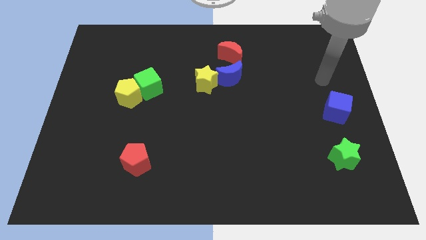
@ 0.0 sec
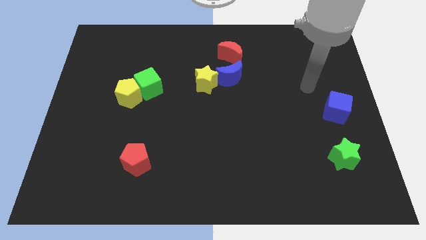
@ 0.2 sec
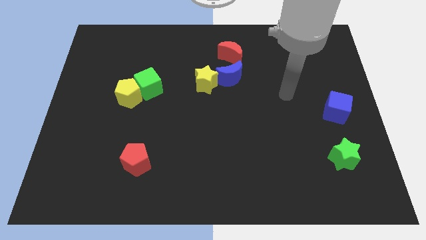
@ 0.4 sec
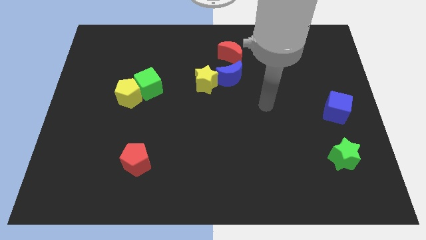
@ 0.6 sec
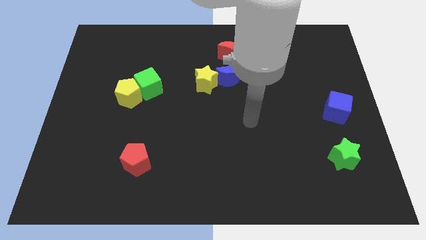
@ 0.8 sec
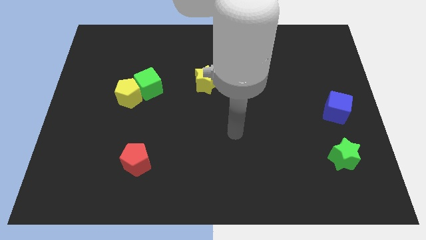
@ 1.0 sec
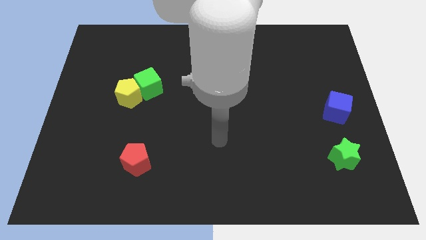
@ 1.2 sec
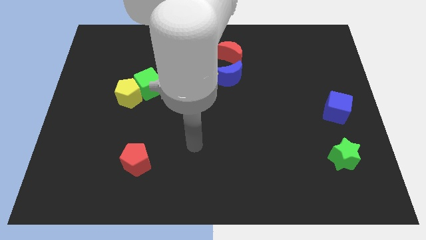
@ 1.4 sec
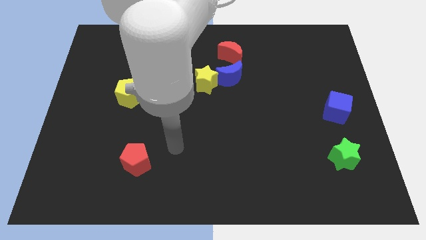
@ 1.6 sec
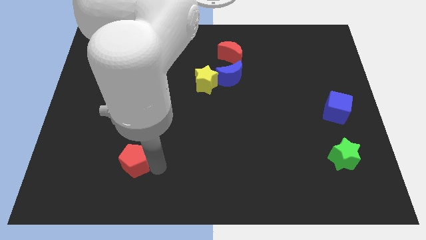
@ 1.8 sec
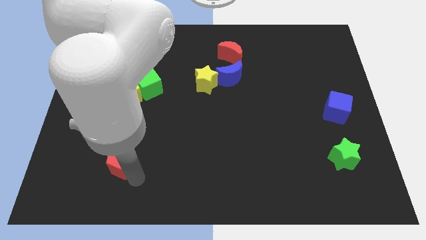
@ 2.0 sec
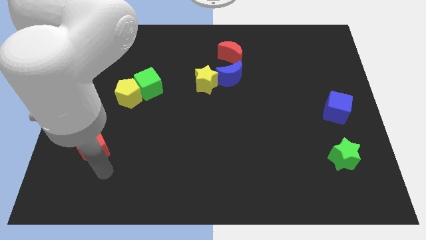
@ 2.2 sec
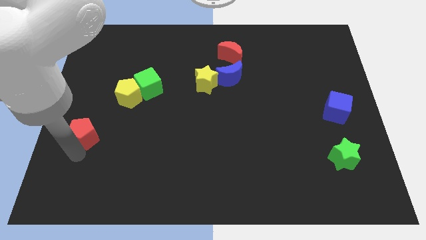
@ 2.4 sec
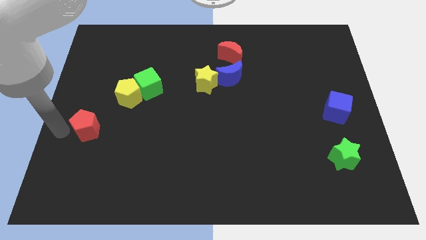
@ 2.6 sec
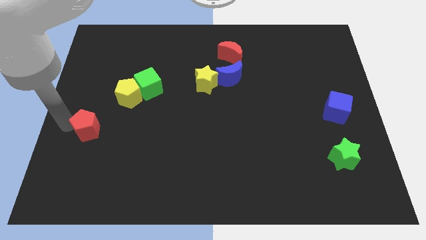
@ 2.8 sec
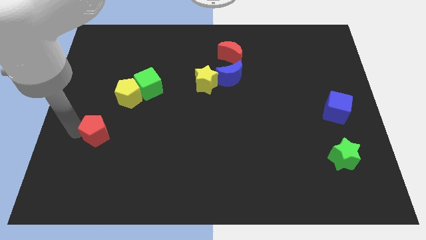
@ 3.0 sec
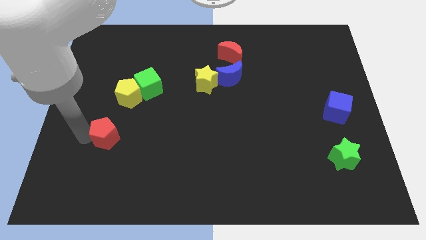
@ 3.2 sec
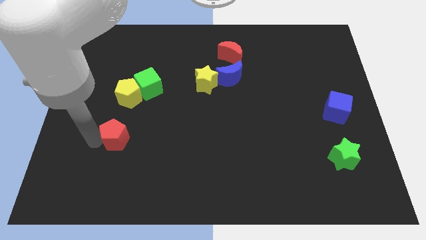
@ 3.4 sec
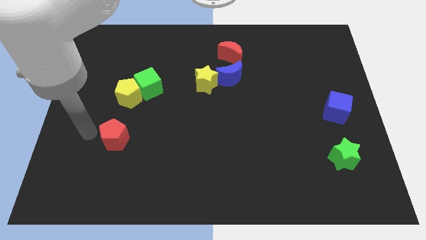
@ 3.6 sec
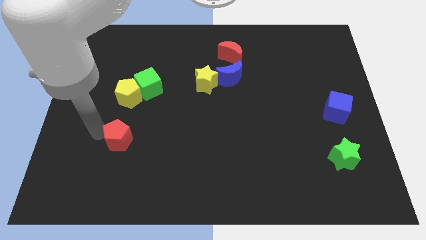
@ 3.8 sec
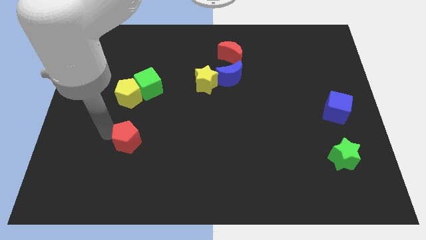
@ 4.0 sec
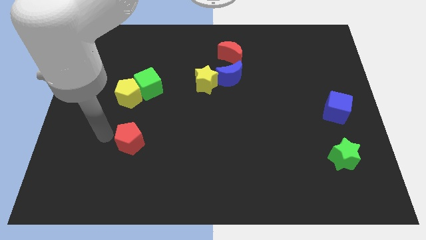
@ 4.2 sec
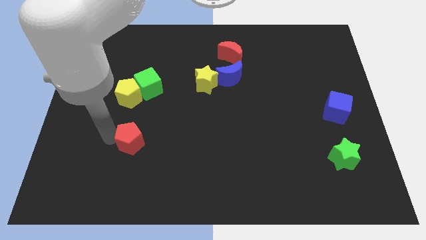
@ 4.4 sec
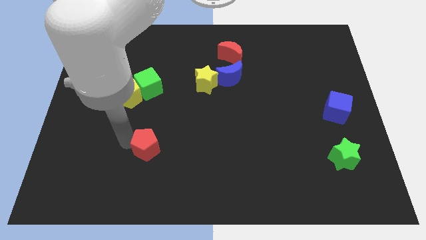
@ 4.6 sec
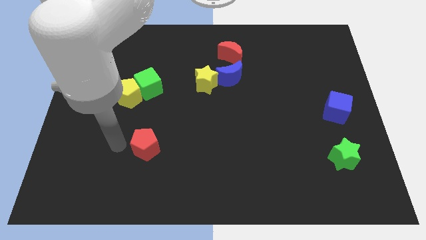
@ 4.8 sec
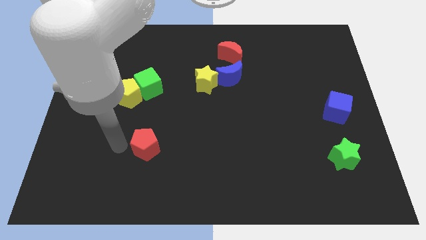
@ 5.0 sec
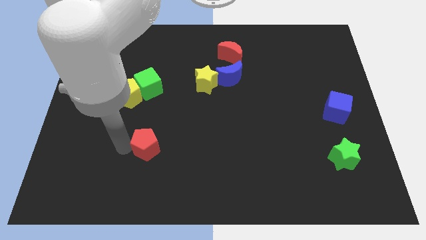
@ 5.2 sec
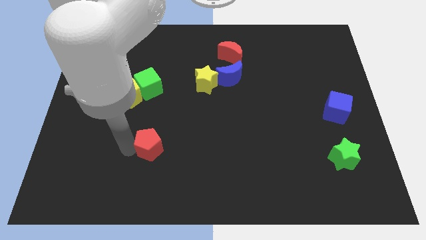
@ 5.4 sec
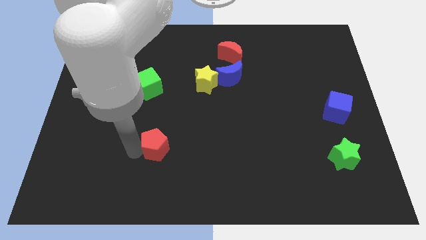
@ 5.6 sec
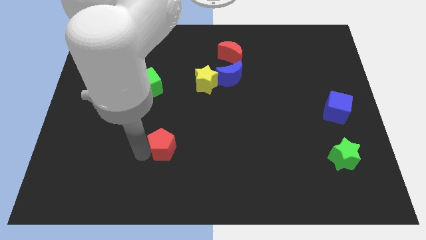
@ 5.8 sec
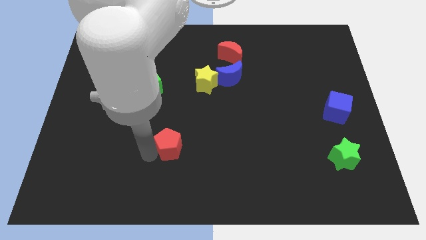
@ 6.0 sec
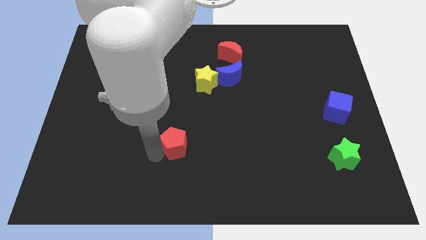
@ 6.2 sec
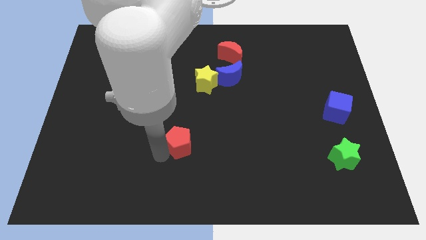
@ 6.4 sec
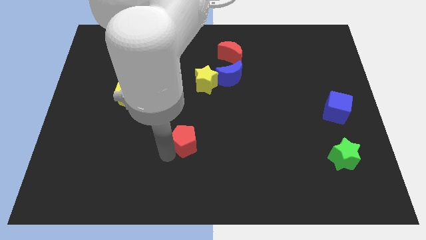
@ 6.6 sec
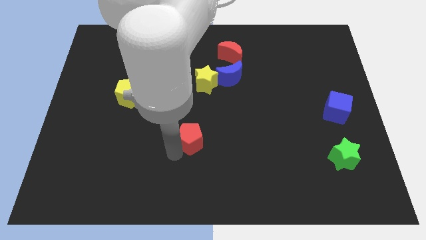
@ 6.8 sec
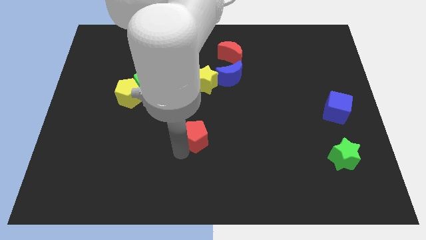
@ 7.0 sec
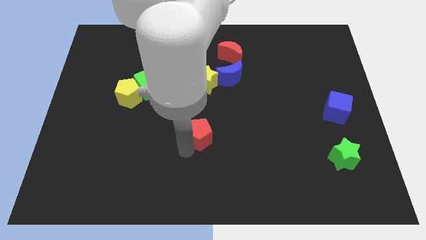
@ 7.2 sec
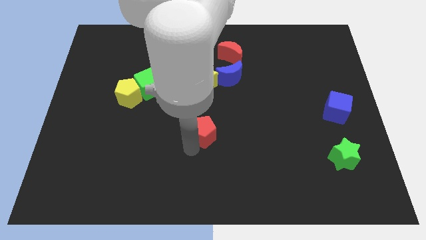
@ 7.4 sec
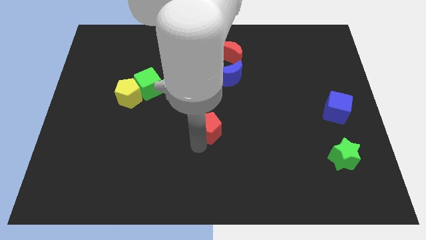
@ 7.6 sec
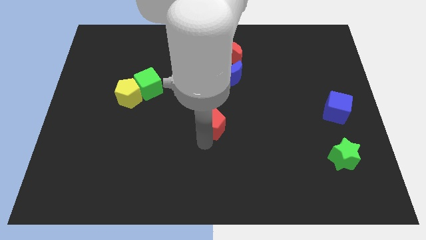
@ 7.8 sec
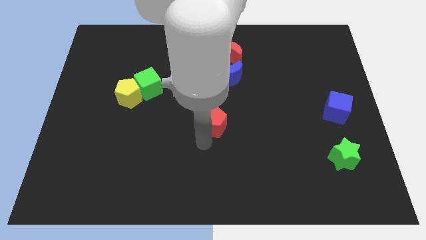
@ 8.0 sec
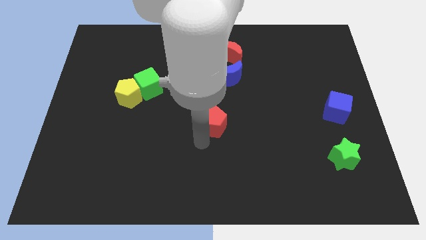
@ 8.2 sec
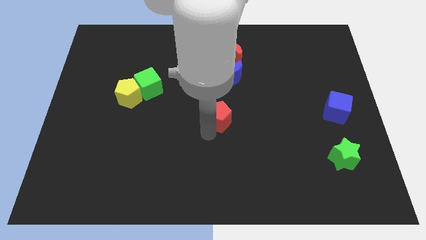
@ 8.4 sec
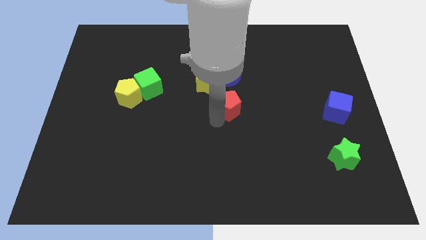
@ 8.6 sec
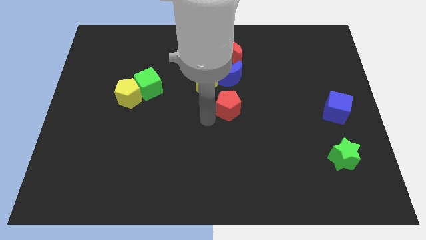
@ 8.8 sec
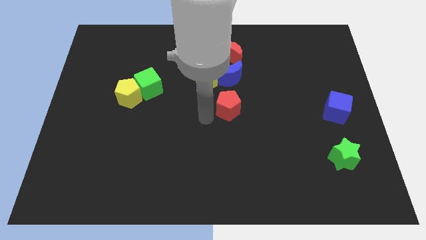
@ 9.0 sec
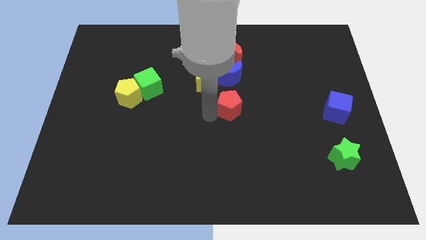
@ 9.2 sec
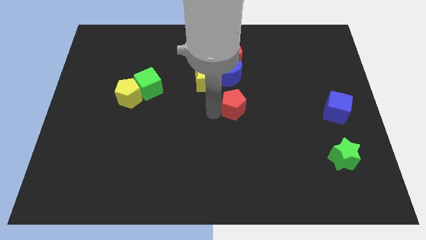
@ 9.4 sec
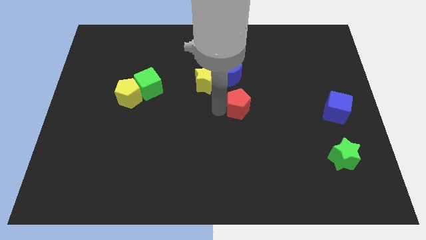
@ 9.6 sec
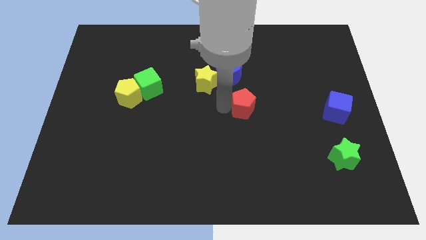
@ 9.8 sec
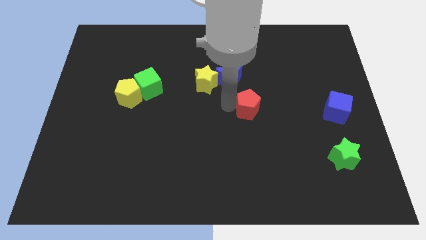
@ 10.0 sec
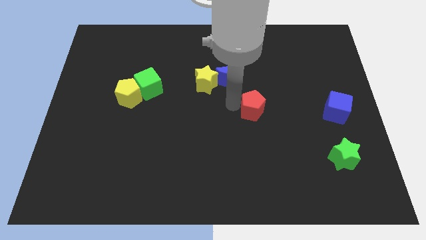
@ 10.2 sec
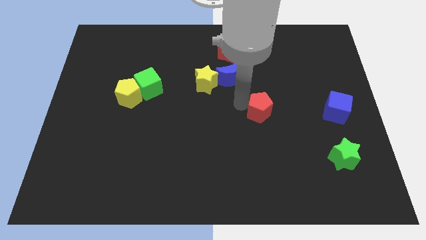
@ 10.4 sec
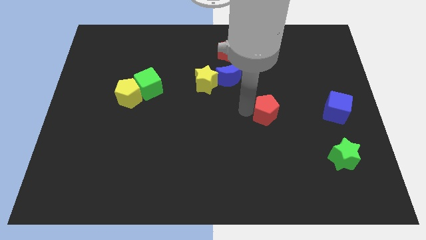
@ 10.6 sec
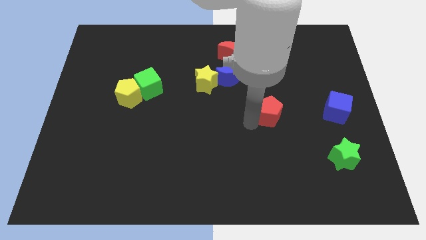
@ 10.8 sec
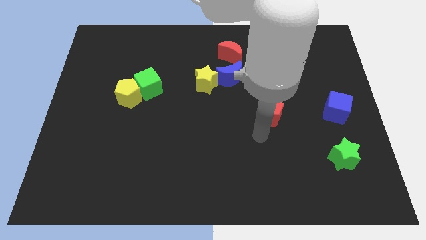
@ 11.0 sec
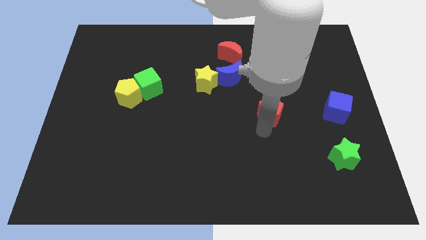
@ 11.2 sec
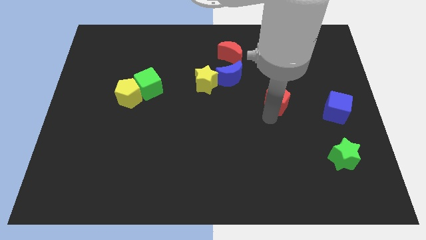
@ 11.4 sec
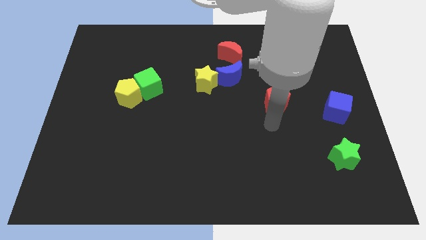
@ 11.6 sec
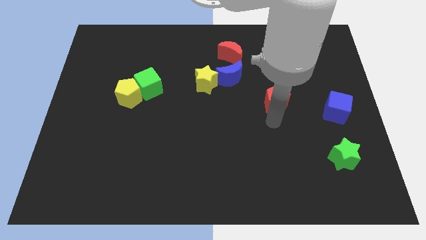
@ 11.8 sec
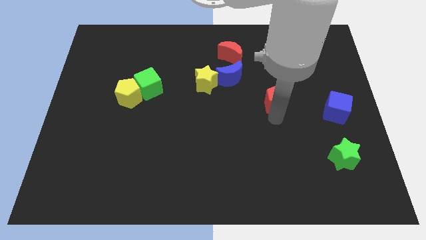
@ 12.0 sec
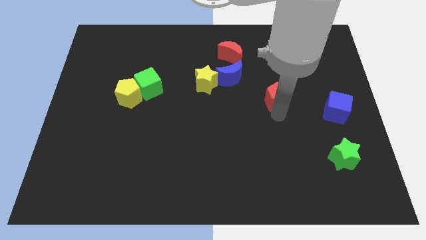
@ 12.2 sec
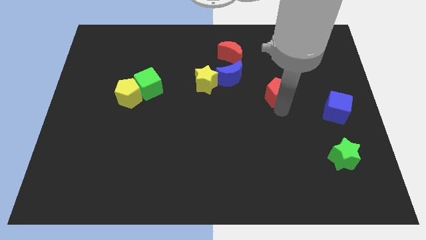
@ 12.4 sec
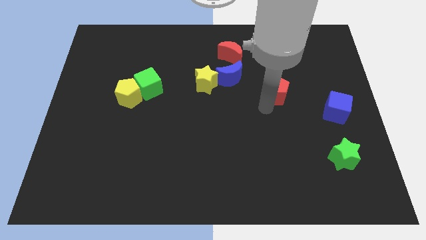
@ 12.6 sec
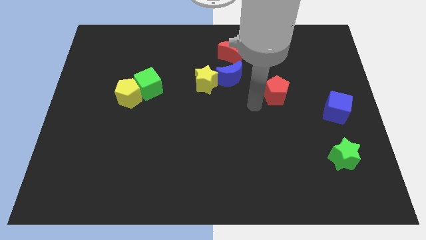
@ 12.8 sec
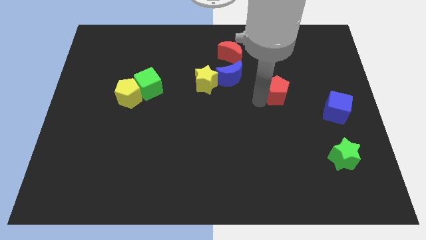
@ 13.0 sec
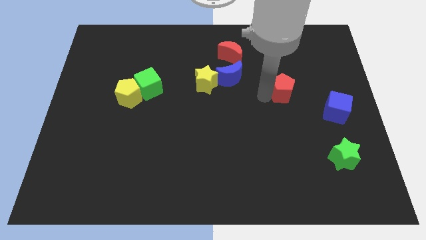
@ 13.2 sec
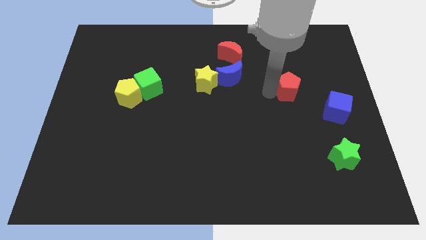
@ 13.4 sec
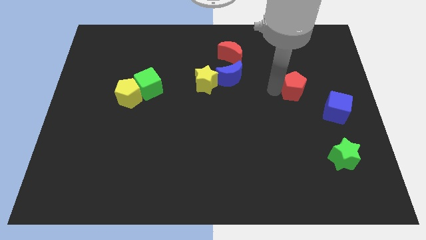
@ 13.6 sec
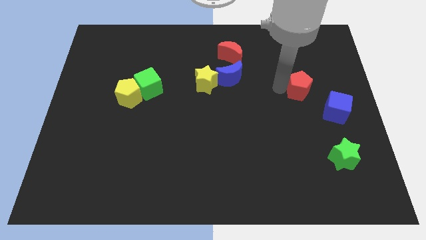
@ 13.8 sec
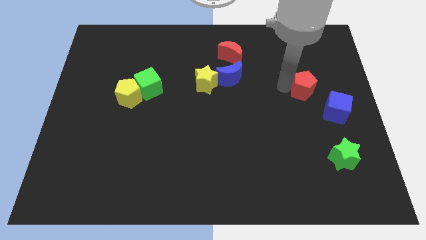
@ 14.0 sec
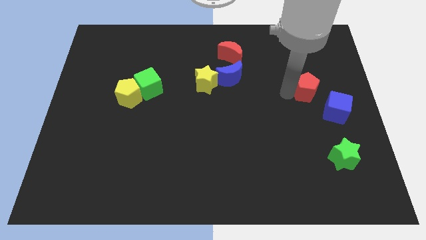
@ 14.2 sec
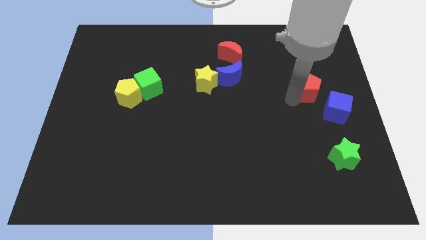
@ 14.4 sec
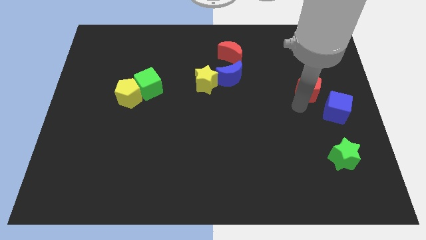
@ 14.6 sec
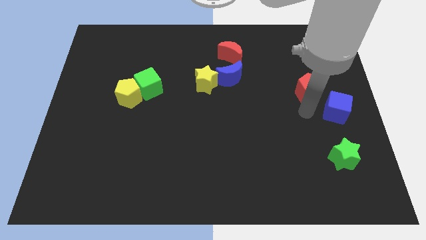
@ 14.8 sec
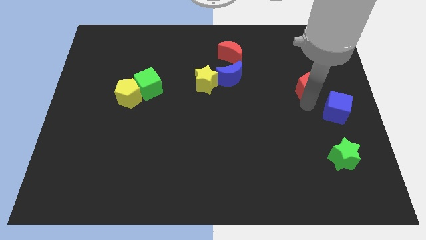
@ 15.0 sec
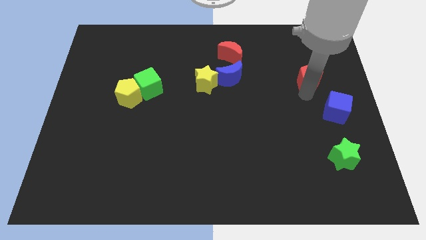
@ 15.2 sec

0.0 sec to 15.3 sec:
put the red pentagon above the blue cube
